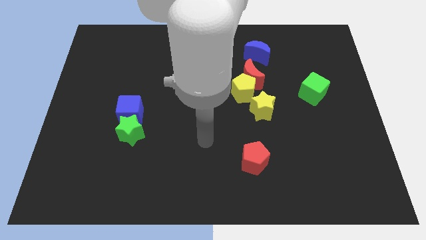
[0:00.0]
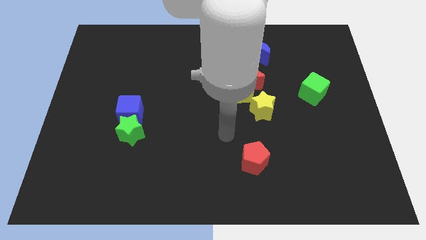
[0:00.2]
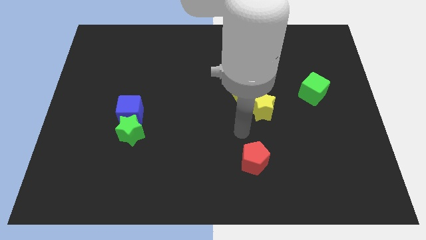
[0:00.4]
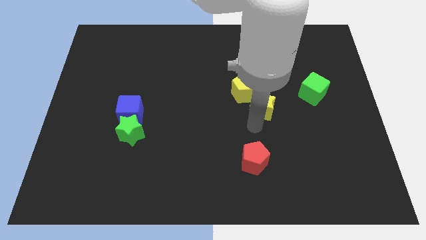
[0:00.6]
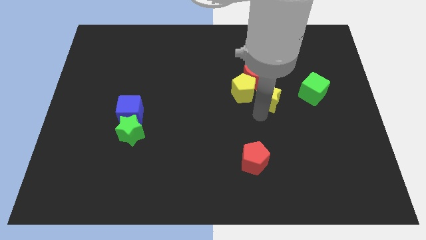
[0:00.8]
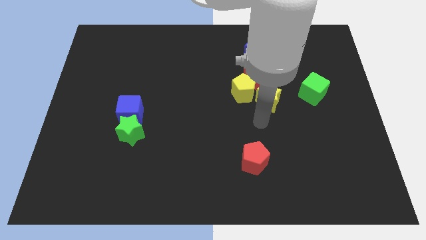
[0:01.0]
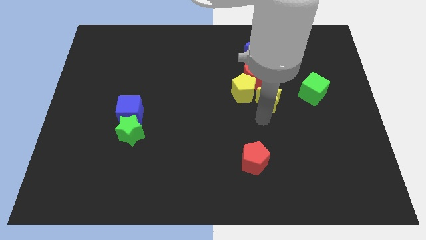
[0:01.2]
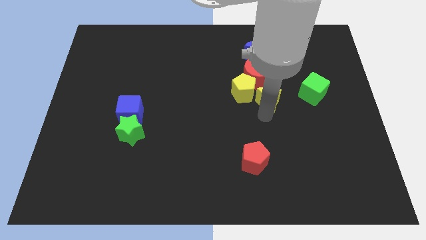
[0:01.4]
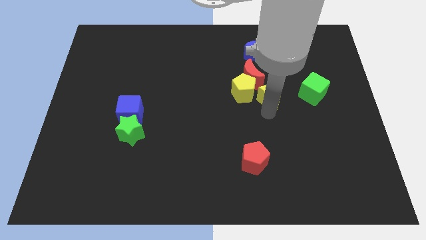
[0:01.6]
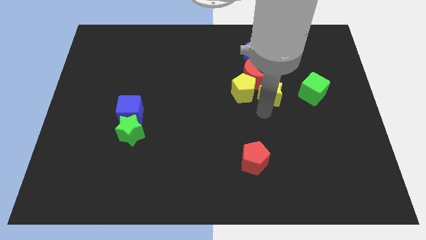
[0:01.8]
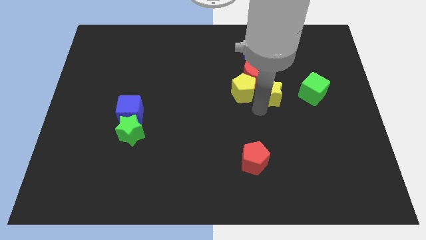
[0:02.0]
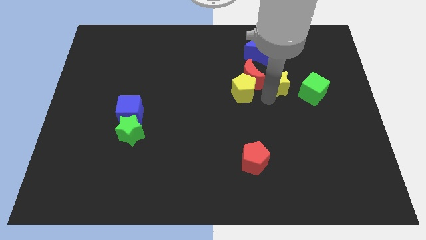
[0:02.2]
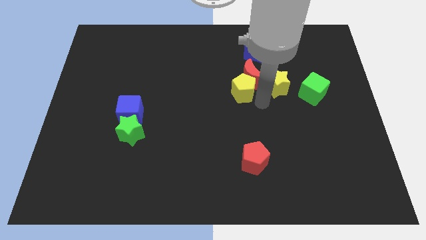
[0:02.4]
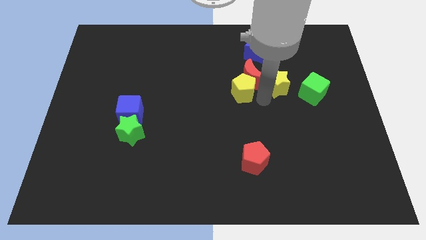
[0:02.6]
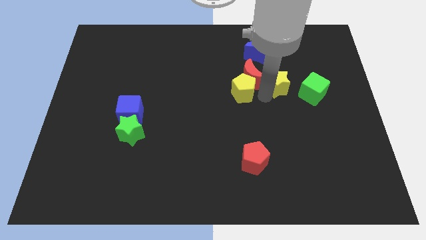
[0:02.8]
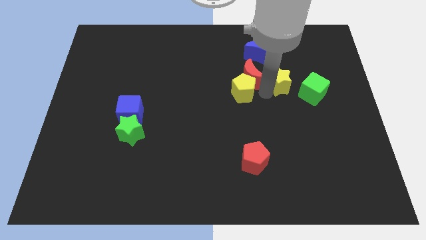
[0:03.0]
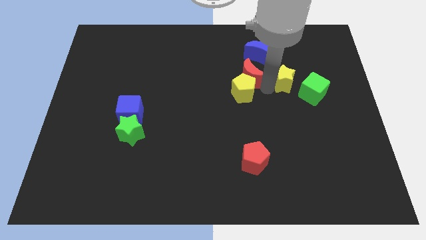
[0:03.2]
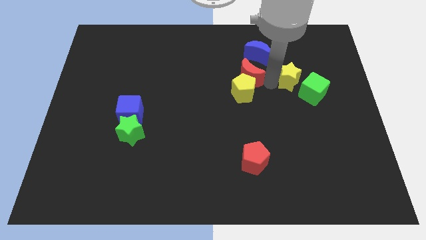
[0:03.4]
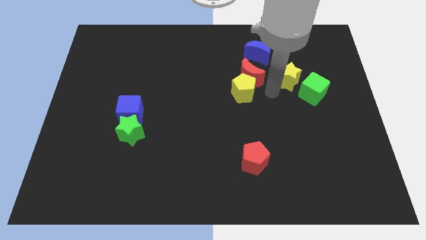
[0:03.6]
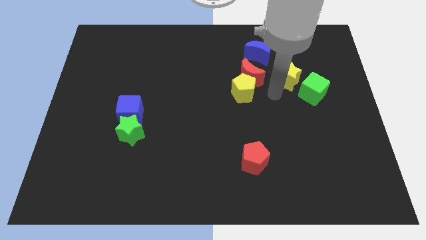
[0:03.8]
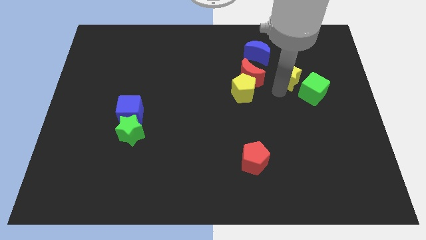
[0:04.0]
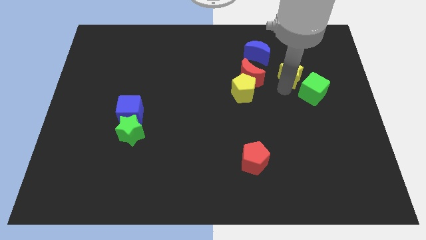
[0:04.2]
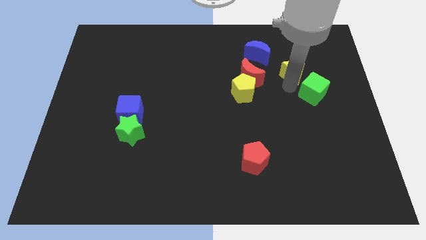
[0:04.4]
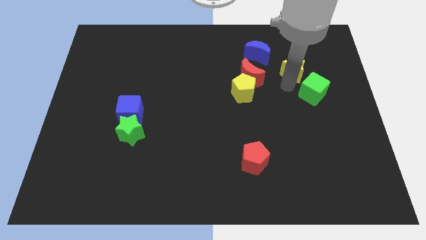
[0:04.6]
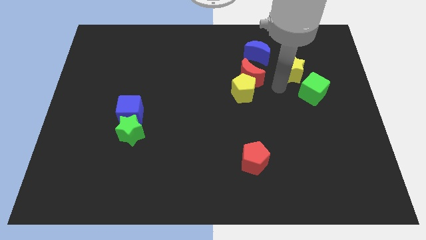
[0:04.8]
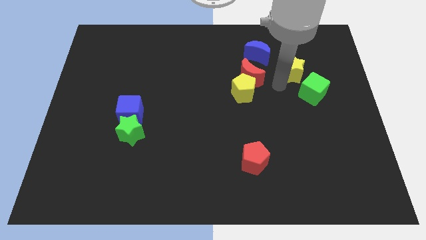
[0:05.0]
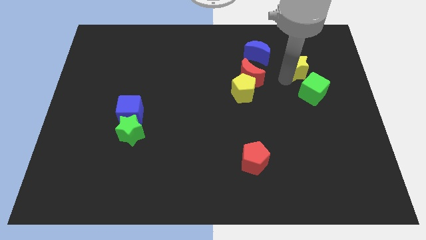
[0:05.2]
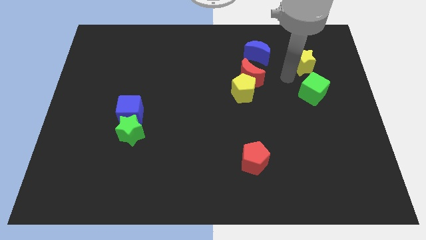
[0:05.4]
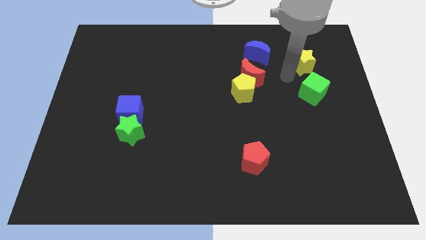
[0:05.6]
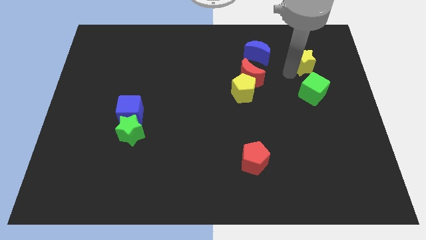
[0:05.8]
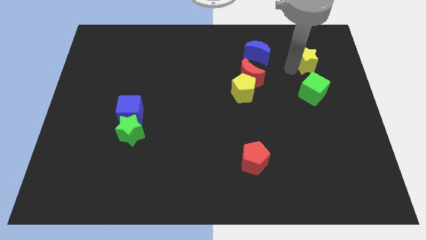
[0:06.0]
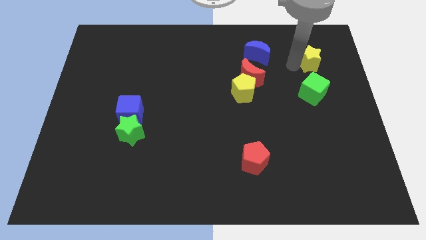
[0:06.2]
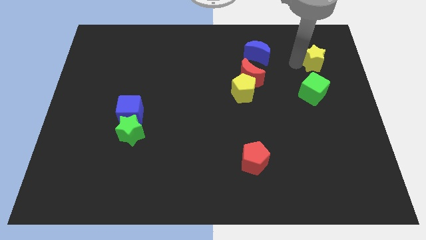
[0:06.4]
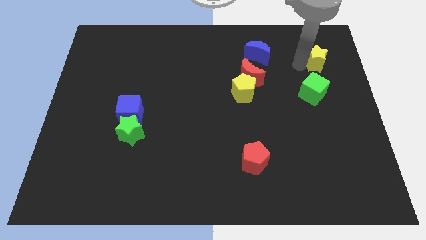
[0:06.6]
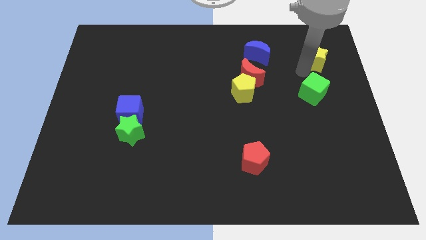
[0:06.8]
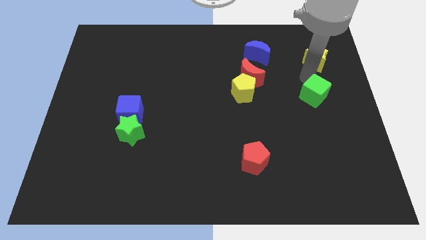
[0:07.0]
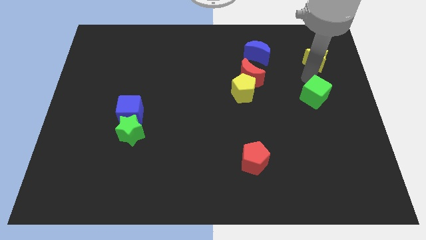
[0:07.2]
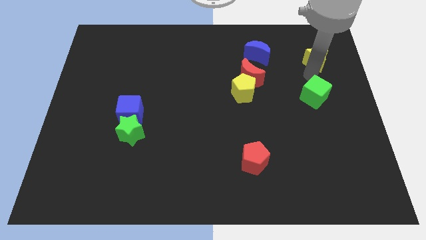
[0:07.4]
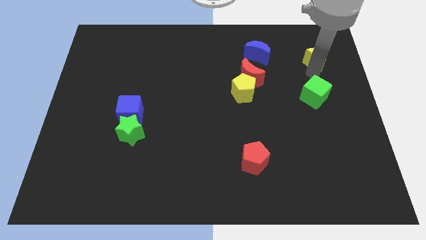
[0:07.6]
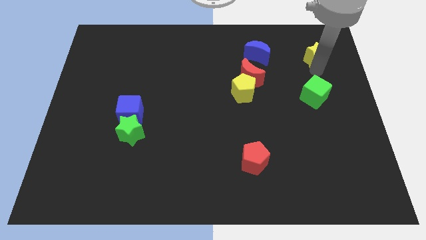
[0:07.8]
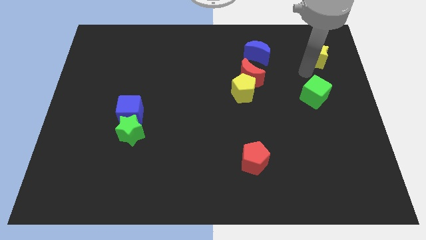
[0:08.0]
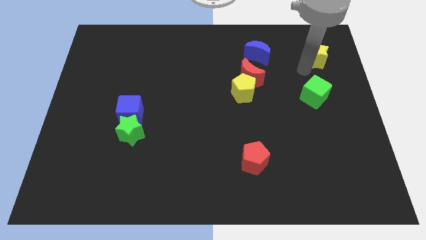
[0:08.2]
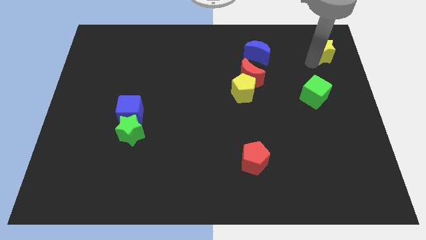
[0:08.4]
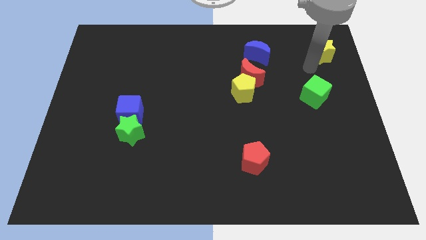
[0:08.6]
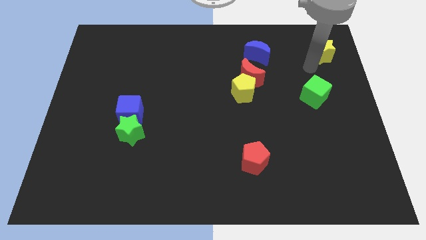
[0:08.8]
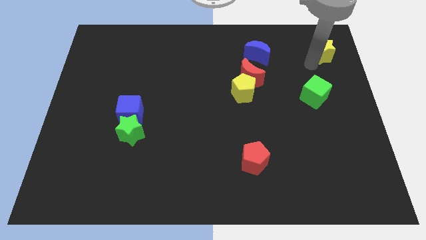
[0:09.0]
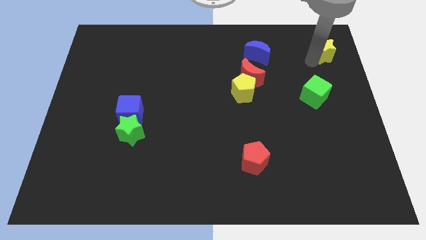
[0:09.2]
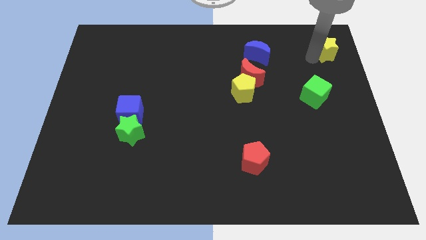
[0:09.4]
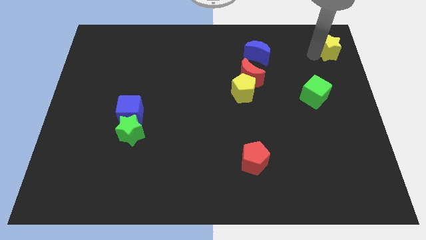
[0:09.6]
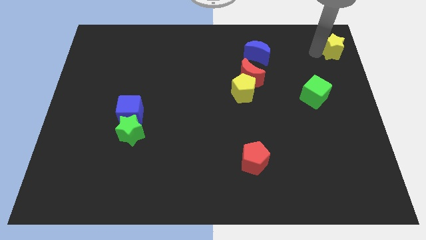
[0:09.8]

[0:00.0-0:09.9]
move the yellow star to the top right

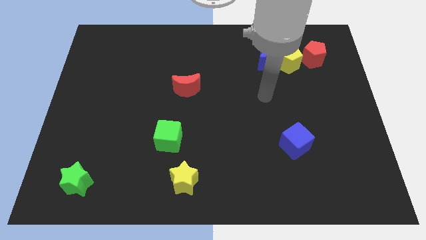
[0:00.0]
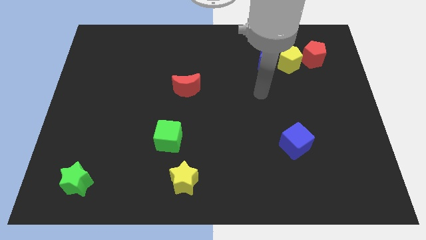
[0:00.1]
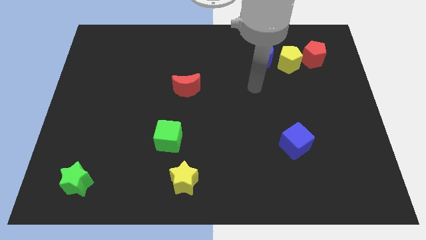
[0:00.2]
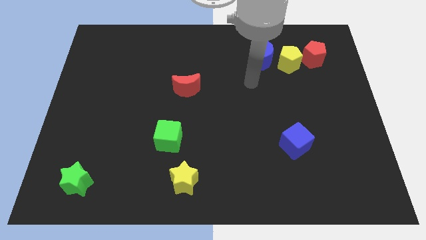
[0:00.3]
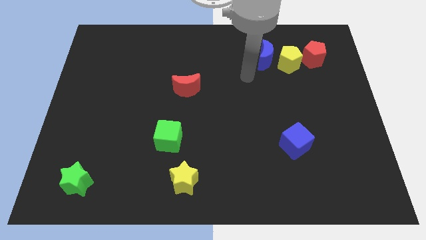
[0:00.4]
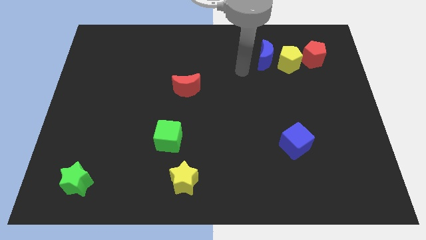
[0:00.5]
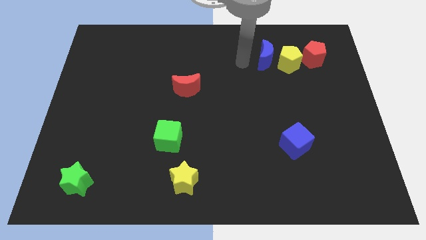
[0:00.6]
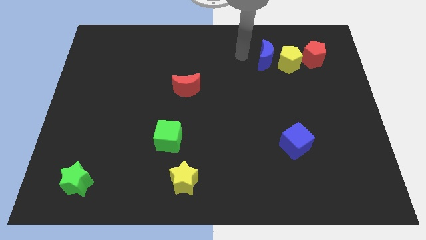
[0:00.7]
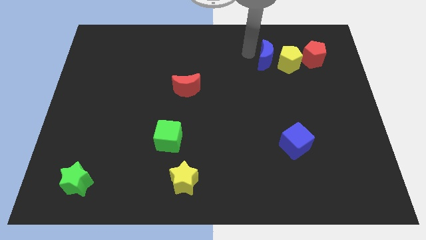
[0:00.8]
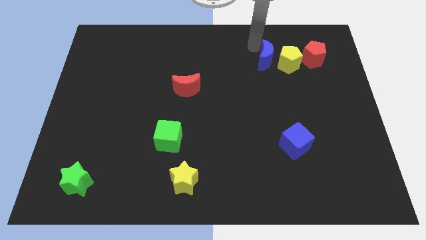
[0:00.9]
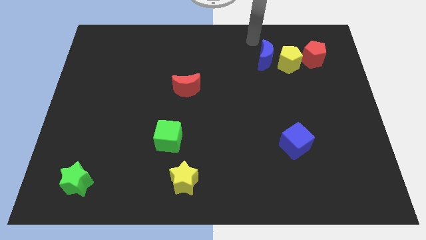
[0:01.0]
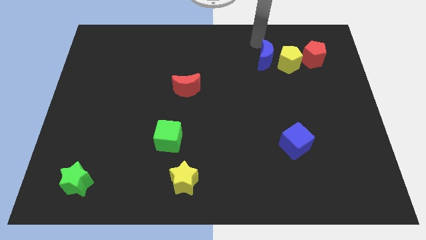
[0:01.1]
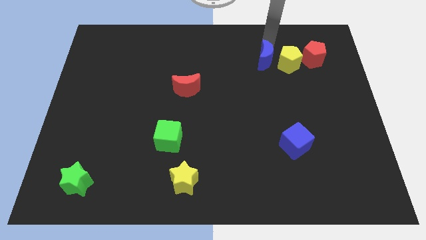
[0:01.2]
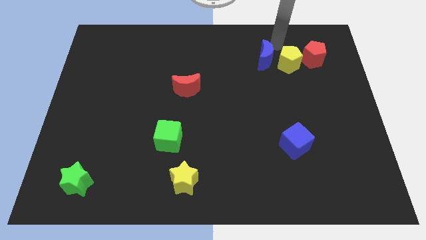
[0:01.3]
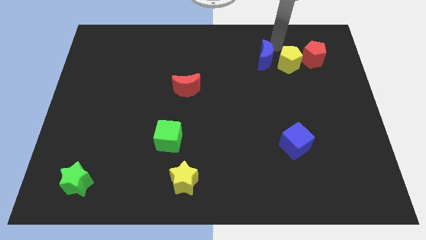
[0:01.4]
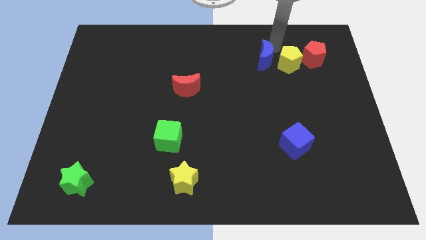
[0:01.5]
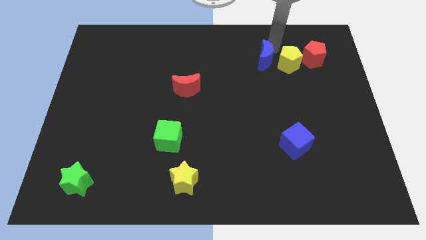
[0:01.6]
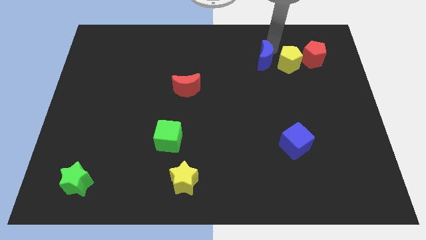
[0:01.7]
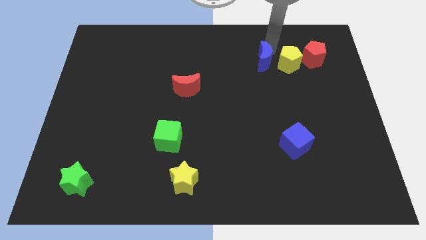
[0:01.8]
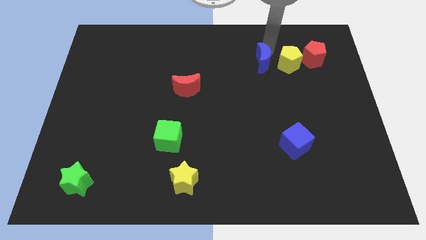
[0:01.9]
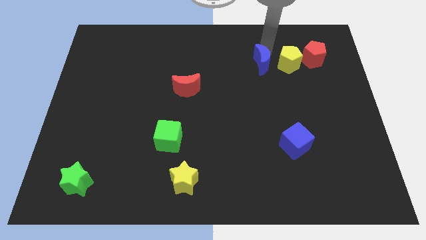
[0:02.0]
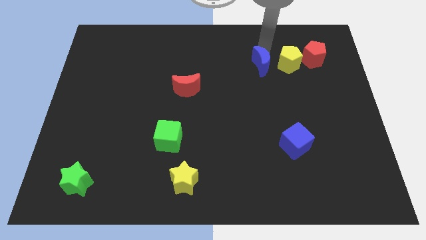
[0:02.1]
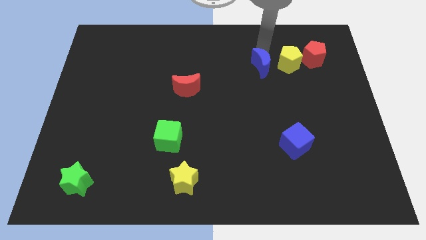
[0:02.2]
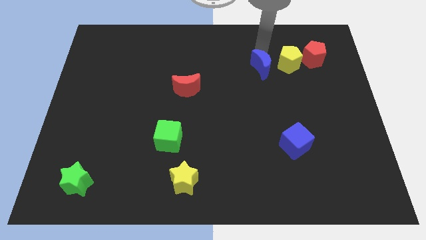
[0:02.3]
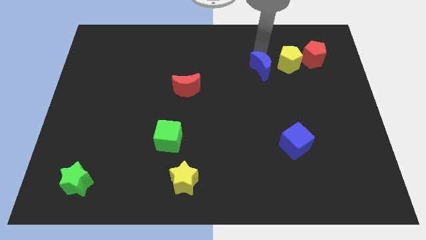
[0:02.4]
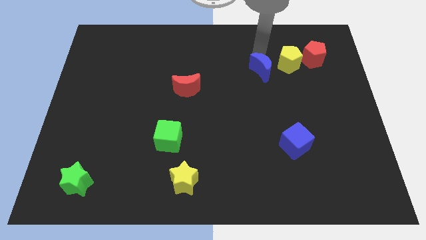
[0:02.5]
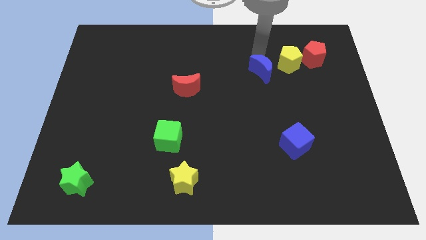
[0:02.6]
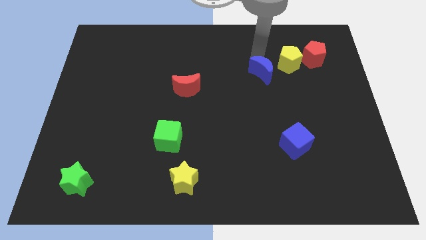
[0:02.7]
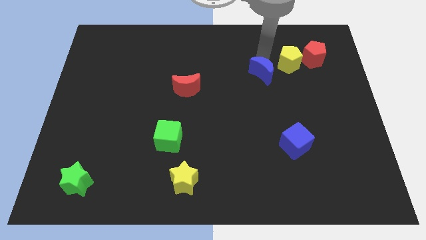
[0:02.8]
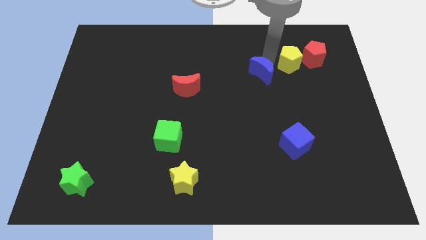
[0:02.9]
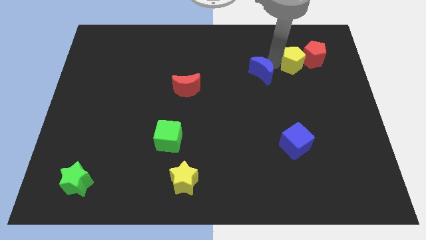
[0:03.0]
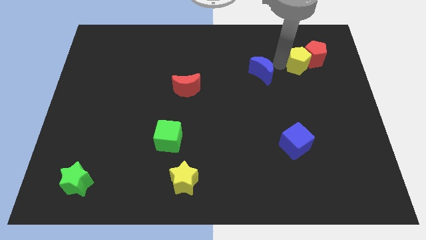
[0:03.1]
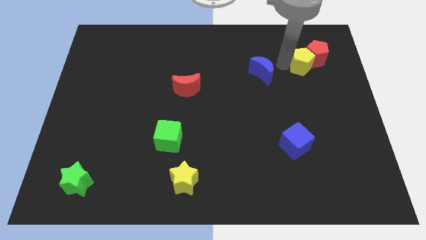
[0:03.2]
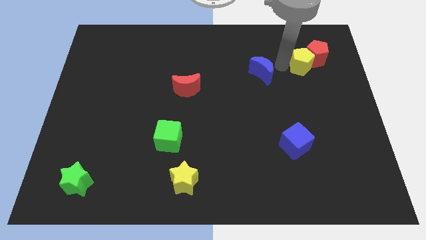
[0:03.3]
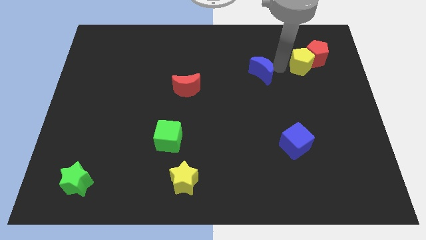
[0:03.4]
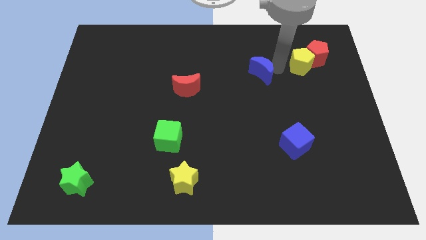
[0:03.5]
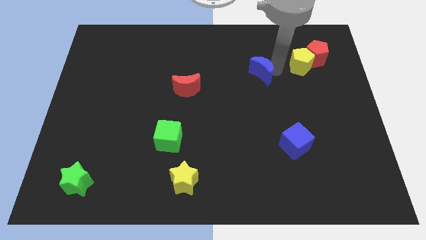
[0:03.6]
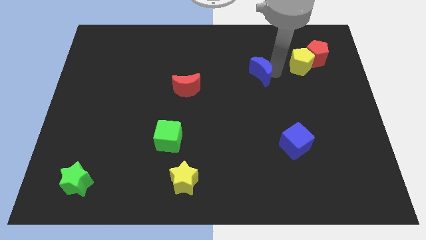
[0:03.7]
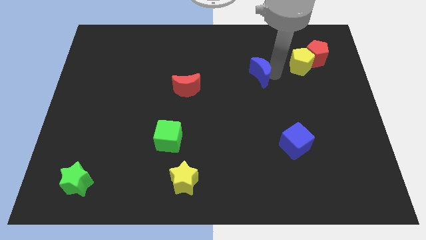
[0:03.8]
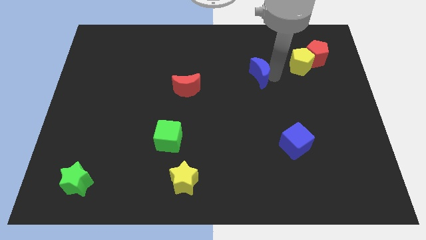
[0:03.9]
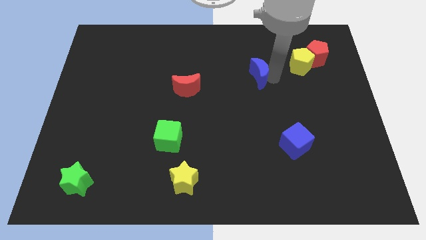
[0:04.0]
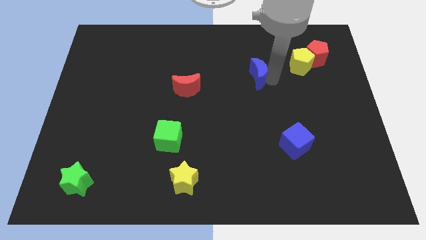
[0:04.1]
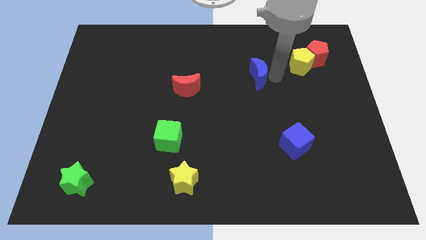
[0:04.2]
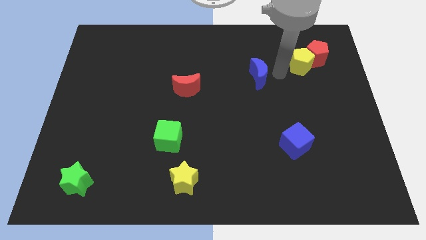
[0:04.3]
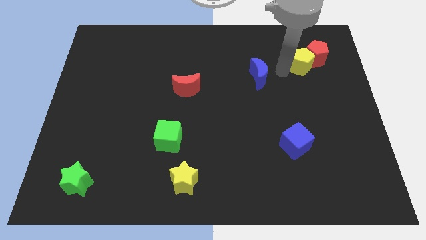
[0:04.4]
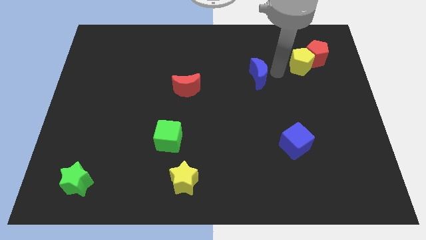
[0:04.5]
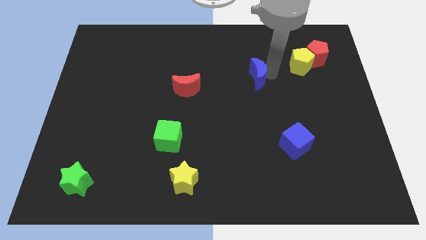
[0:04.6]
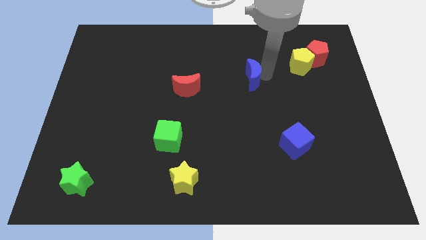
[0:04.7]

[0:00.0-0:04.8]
move the blue moon to the center of the board
